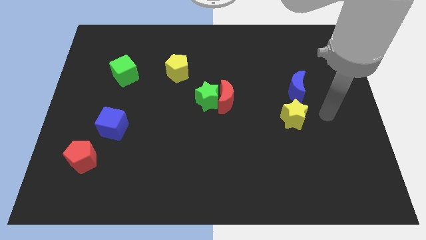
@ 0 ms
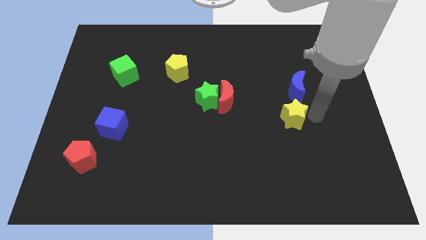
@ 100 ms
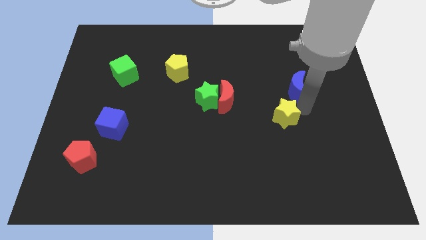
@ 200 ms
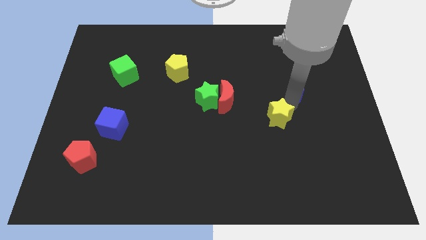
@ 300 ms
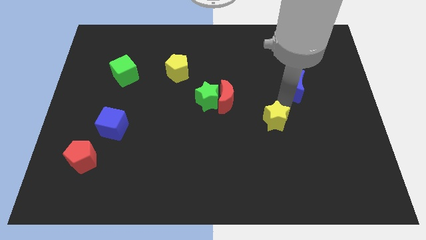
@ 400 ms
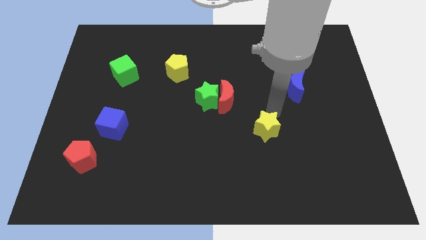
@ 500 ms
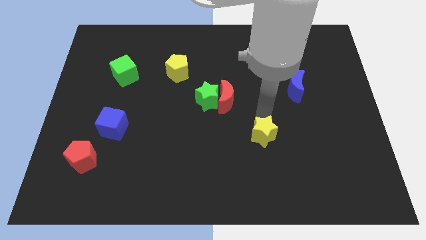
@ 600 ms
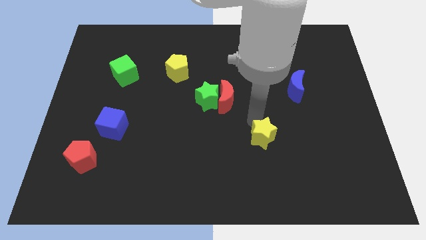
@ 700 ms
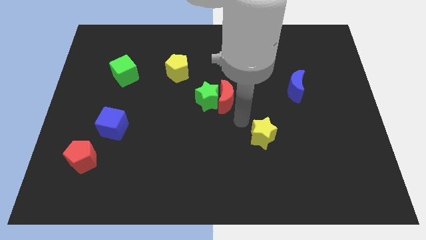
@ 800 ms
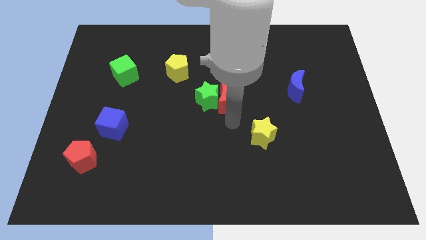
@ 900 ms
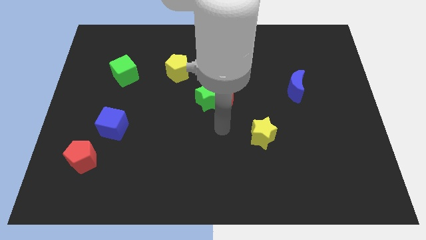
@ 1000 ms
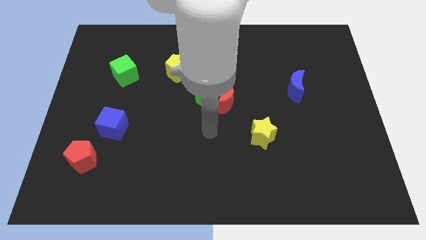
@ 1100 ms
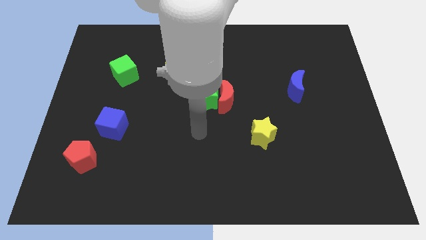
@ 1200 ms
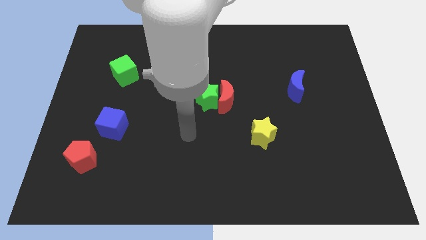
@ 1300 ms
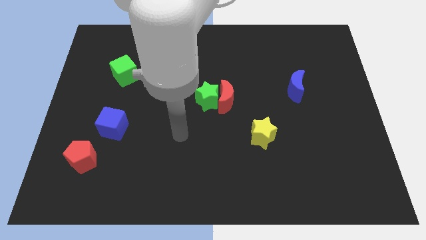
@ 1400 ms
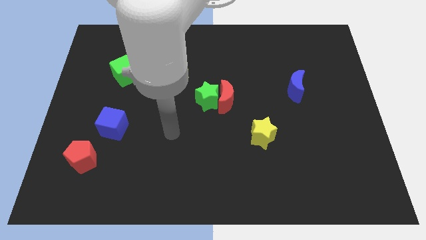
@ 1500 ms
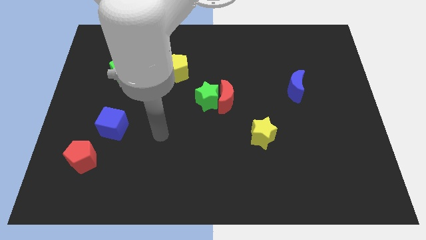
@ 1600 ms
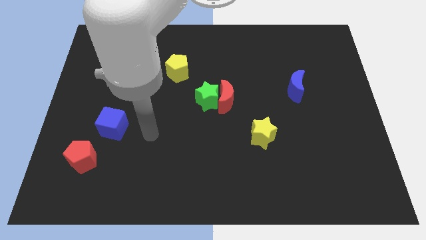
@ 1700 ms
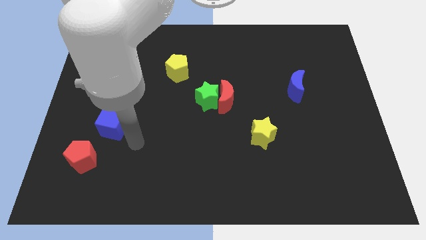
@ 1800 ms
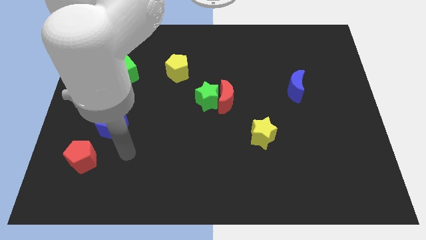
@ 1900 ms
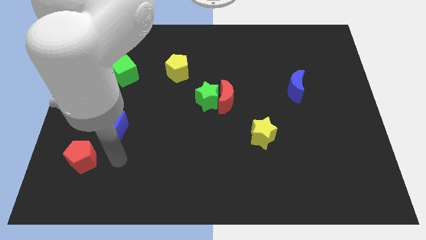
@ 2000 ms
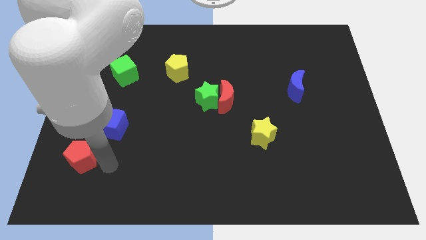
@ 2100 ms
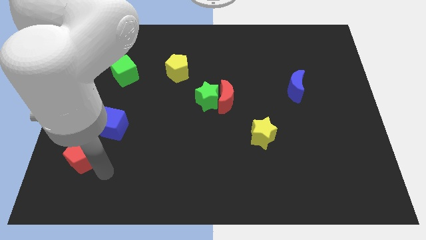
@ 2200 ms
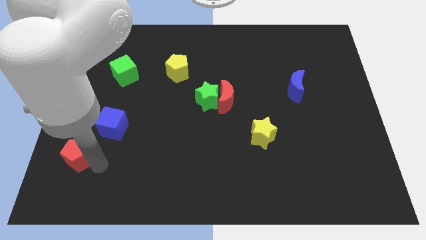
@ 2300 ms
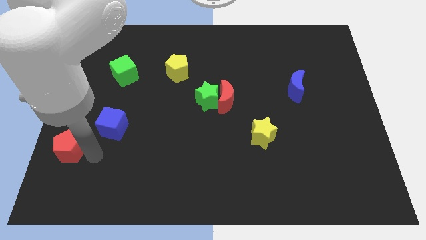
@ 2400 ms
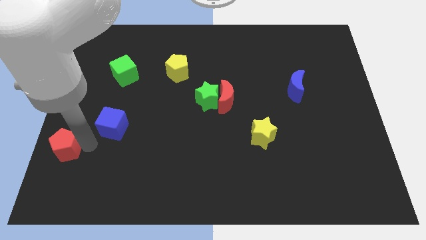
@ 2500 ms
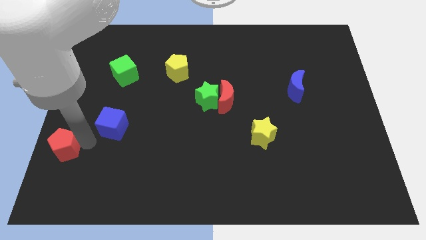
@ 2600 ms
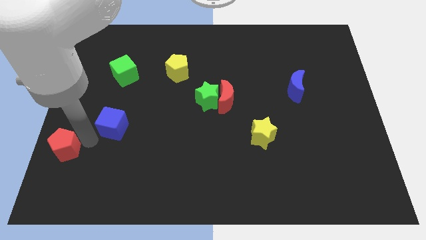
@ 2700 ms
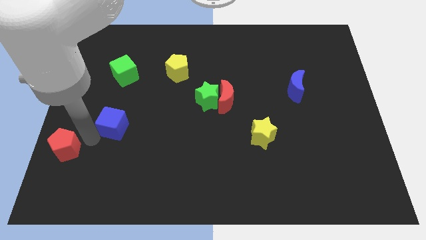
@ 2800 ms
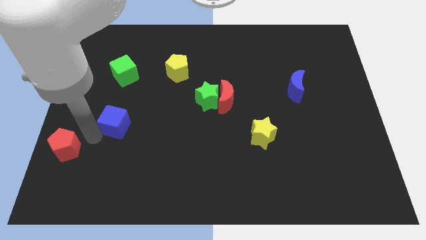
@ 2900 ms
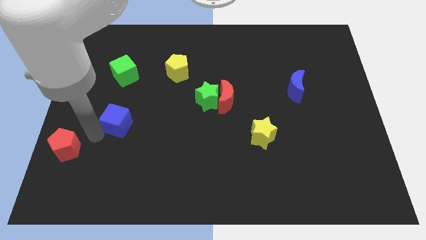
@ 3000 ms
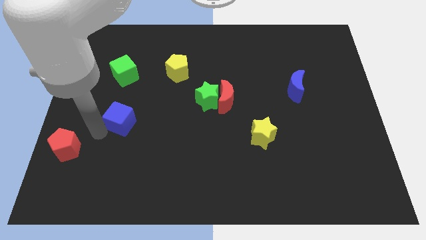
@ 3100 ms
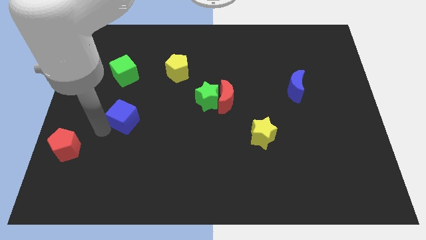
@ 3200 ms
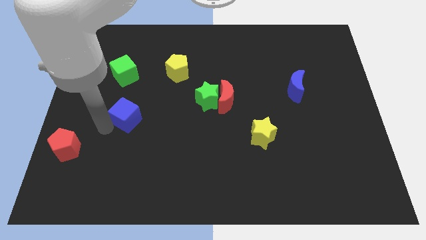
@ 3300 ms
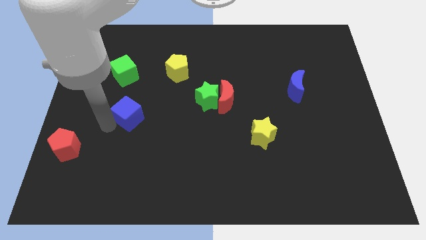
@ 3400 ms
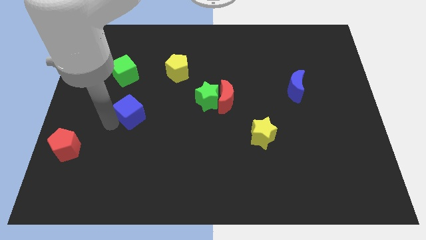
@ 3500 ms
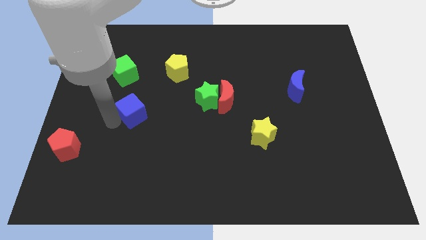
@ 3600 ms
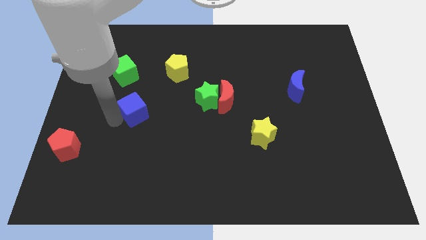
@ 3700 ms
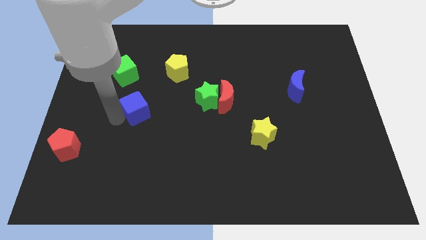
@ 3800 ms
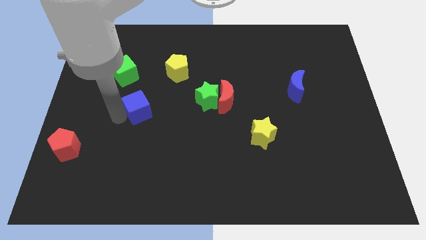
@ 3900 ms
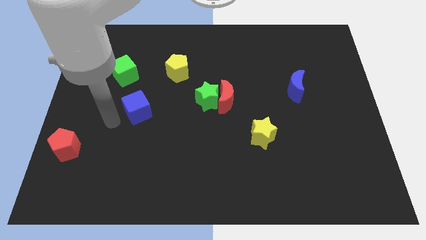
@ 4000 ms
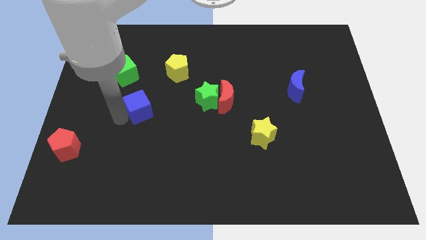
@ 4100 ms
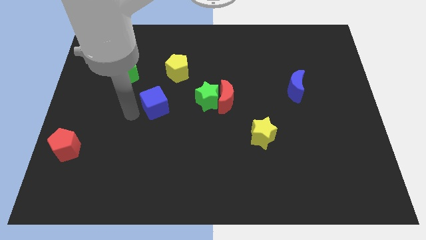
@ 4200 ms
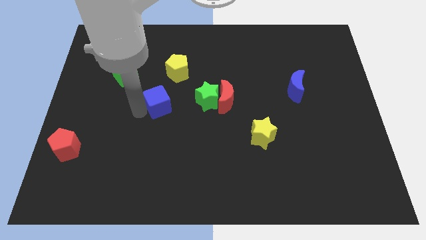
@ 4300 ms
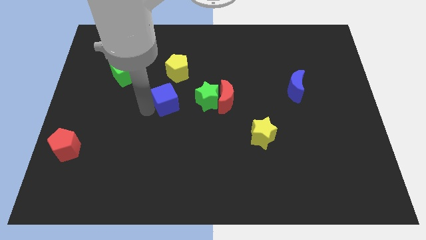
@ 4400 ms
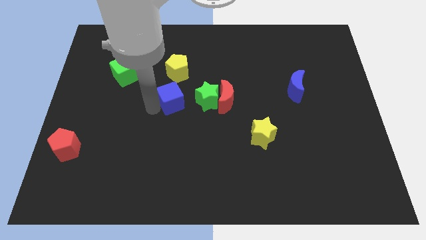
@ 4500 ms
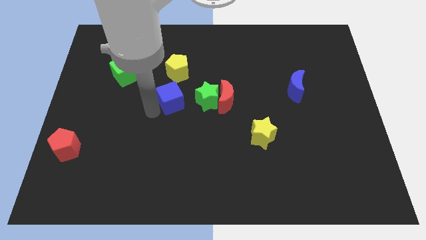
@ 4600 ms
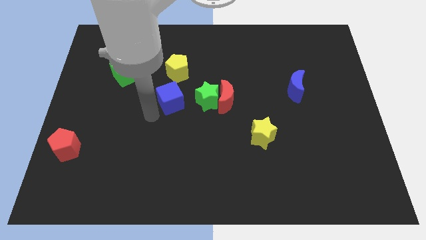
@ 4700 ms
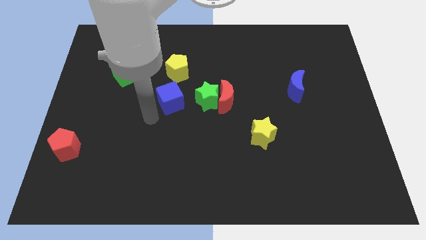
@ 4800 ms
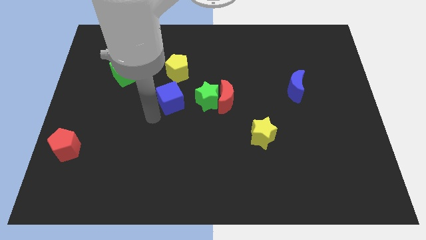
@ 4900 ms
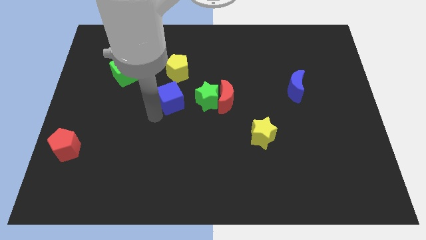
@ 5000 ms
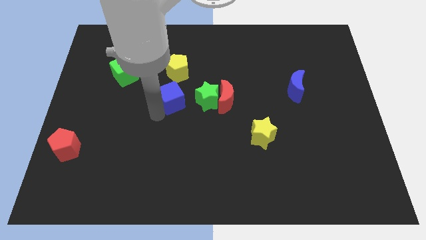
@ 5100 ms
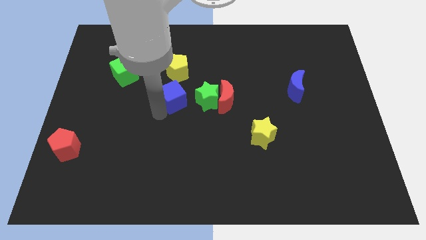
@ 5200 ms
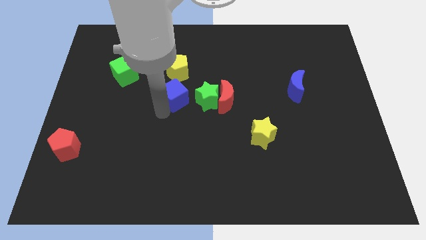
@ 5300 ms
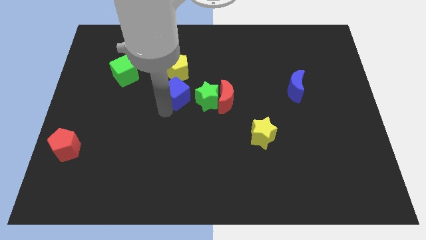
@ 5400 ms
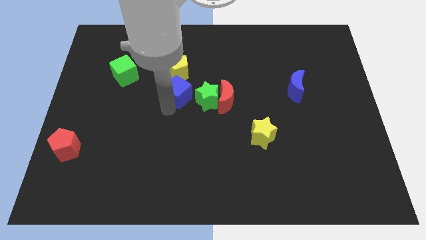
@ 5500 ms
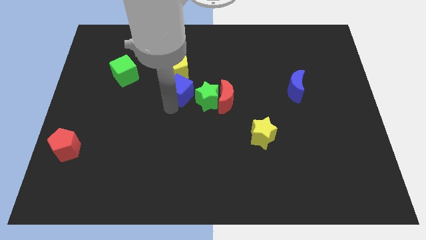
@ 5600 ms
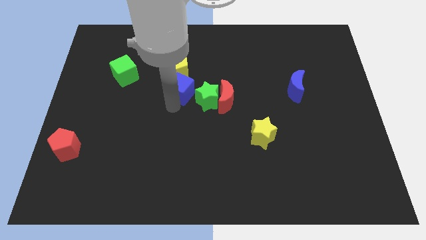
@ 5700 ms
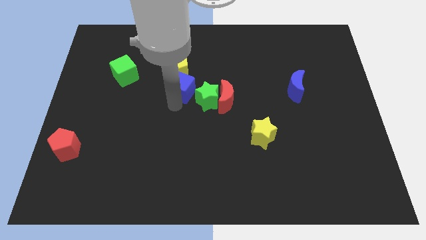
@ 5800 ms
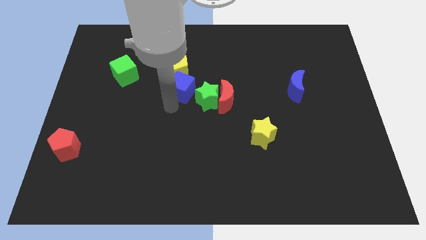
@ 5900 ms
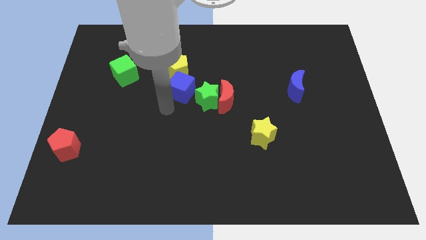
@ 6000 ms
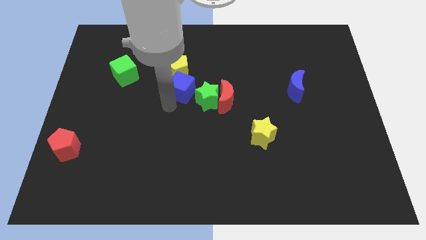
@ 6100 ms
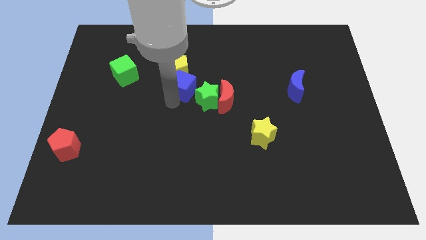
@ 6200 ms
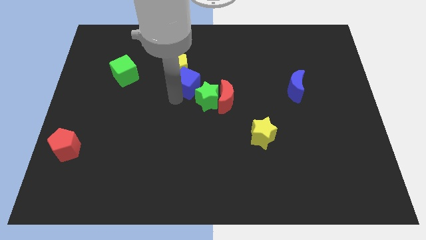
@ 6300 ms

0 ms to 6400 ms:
slide the blue cube diagonally up and to the right

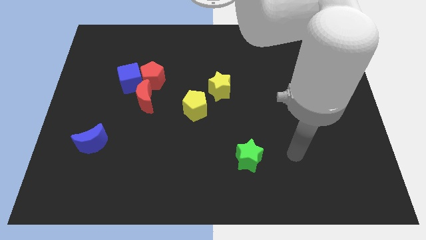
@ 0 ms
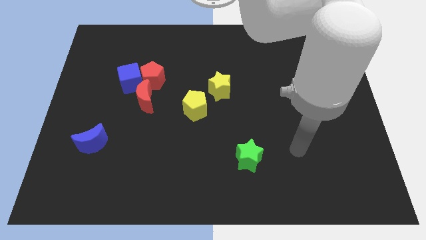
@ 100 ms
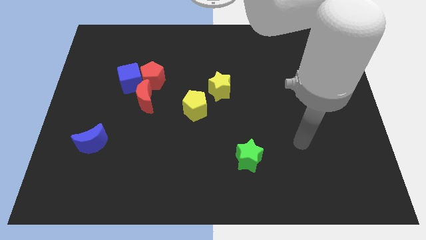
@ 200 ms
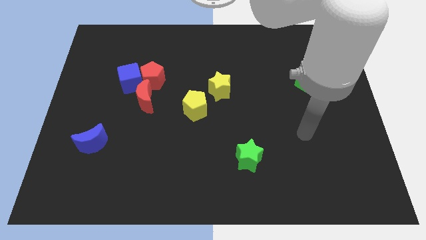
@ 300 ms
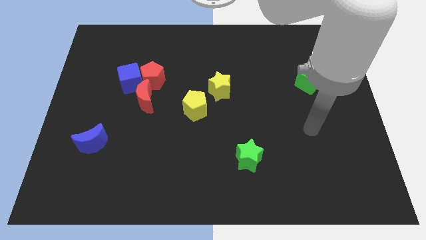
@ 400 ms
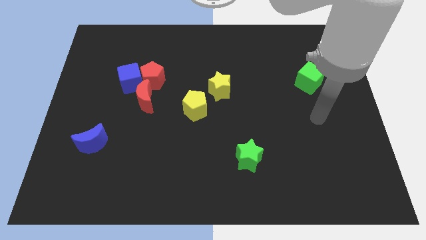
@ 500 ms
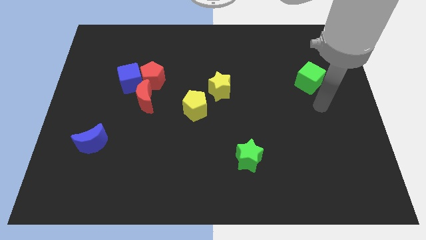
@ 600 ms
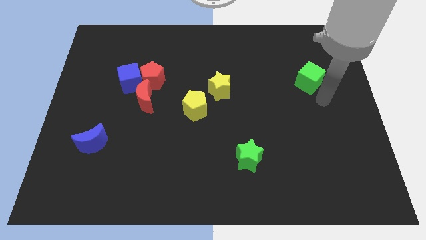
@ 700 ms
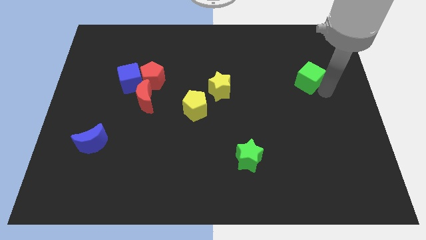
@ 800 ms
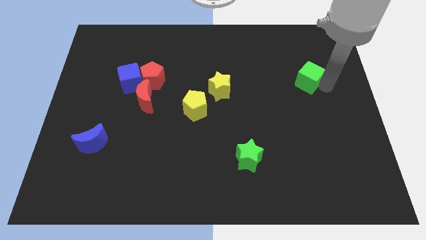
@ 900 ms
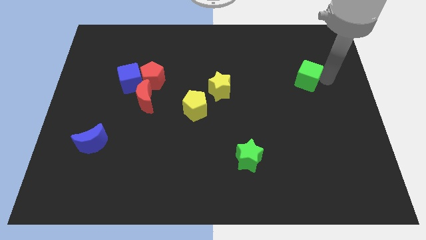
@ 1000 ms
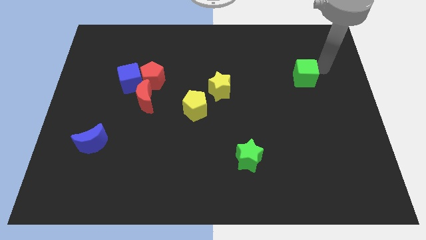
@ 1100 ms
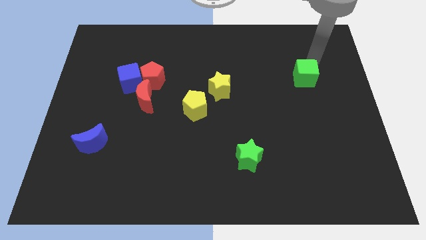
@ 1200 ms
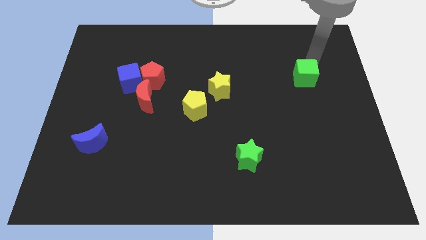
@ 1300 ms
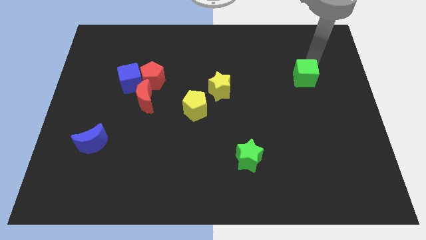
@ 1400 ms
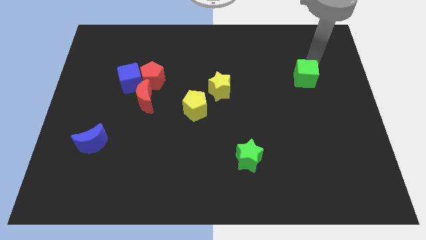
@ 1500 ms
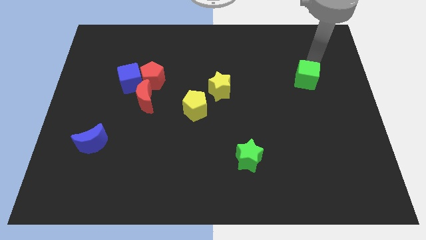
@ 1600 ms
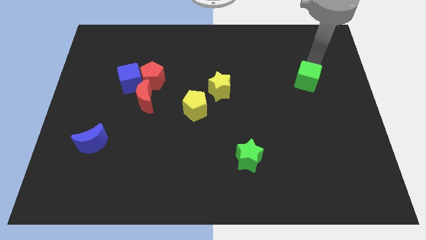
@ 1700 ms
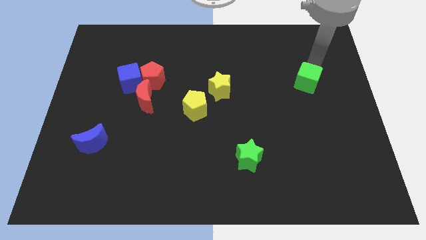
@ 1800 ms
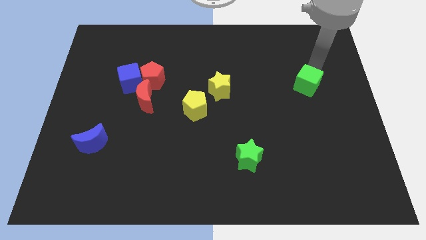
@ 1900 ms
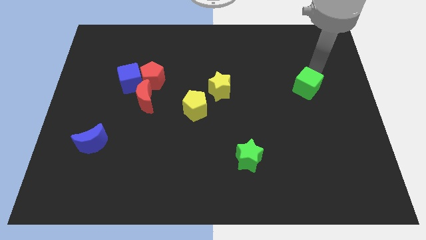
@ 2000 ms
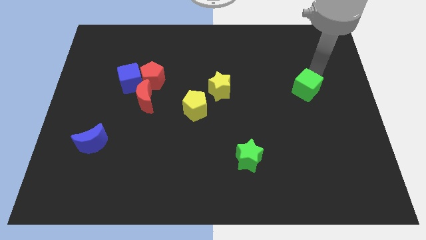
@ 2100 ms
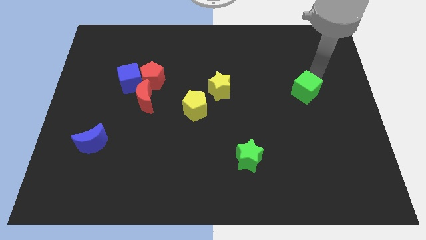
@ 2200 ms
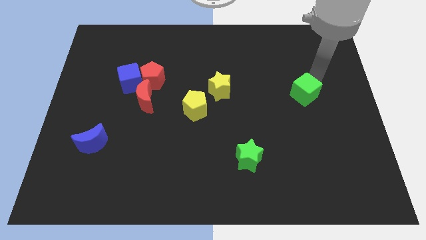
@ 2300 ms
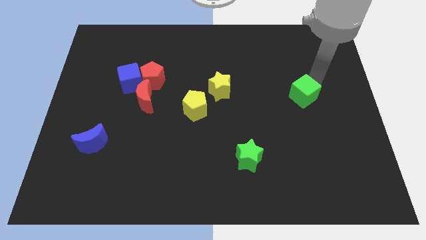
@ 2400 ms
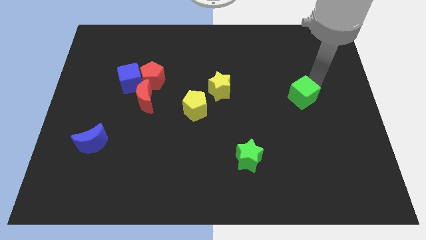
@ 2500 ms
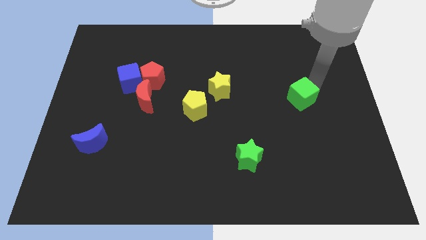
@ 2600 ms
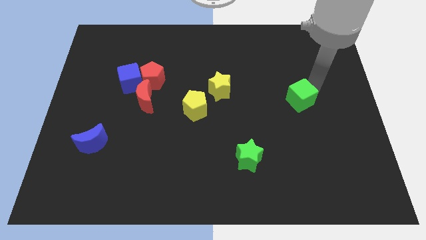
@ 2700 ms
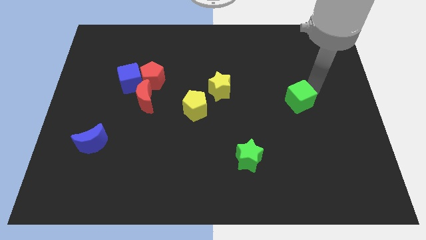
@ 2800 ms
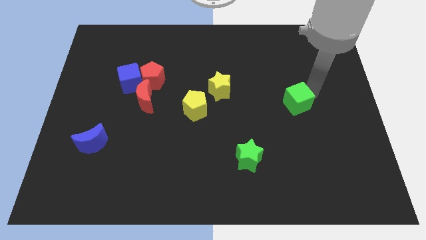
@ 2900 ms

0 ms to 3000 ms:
slightly push the green cube downwards and left
